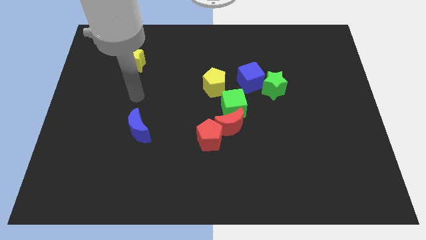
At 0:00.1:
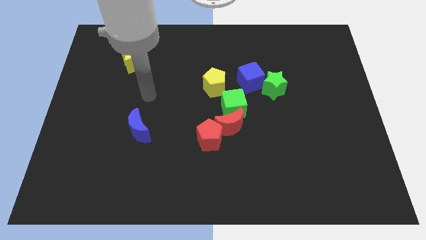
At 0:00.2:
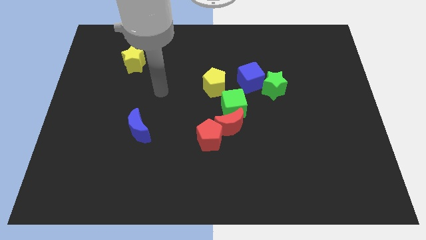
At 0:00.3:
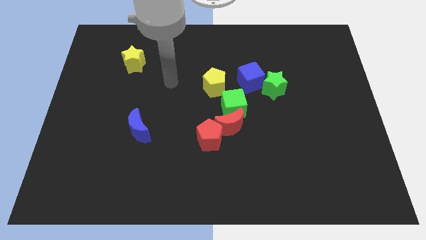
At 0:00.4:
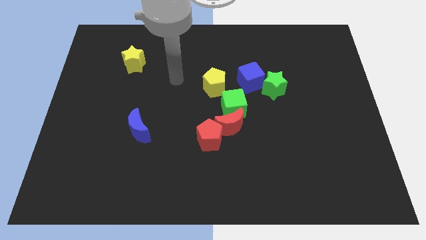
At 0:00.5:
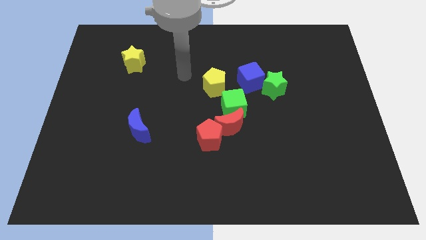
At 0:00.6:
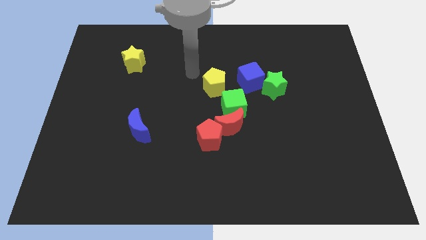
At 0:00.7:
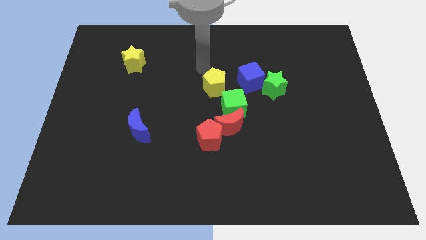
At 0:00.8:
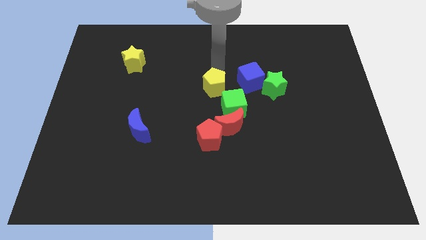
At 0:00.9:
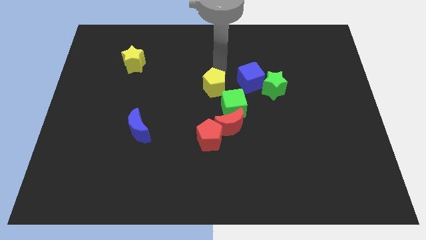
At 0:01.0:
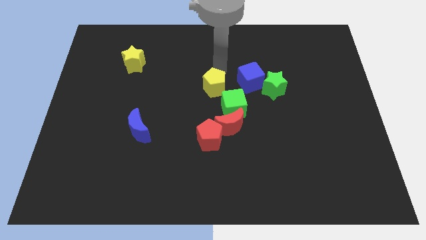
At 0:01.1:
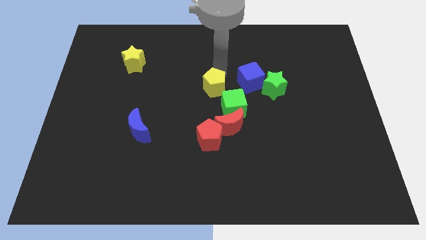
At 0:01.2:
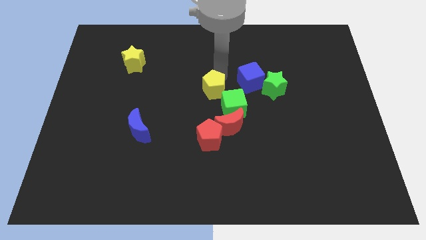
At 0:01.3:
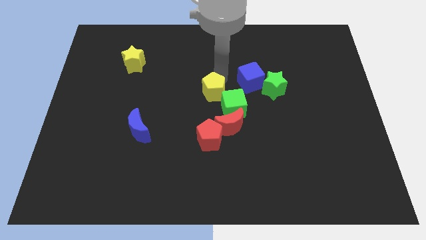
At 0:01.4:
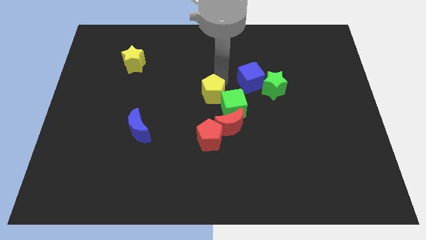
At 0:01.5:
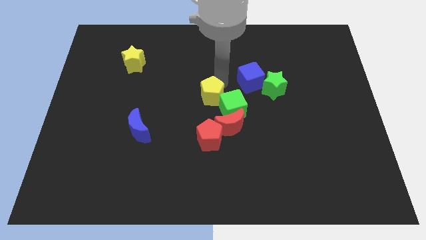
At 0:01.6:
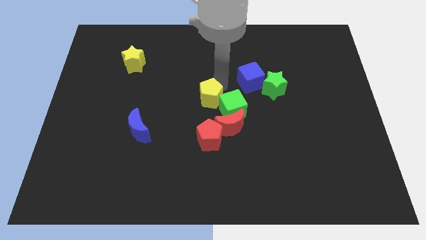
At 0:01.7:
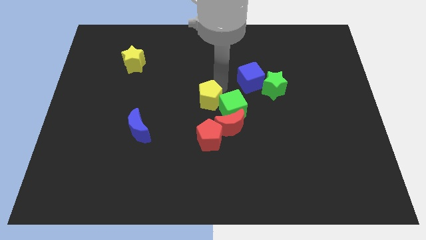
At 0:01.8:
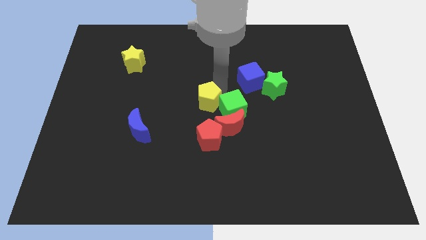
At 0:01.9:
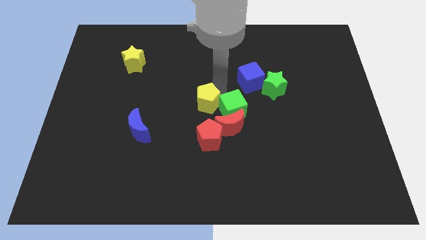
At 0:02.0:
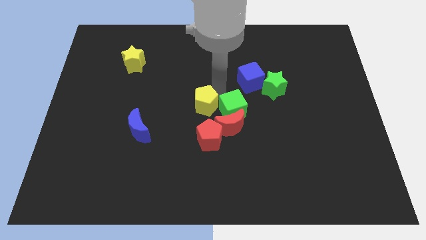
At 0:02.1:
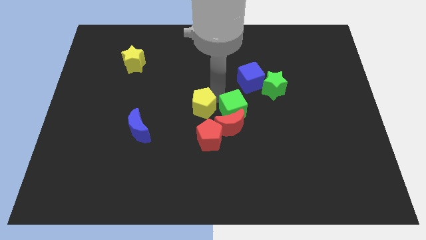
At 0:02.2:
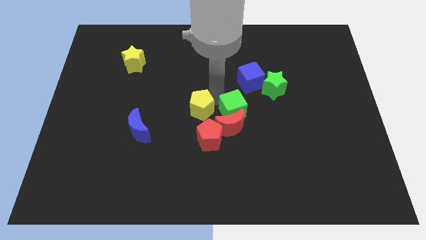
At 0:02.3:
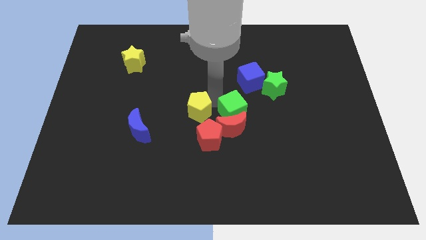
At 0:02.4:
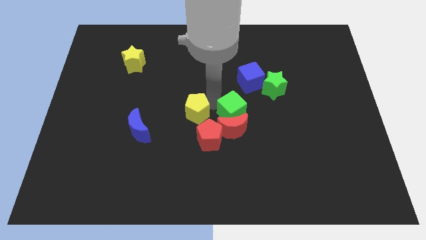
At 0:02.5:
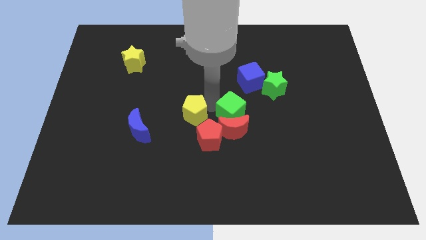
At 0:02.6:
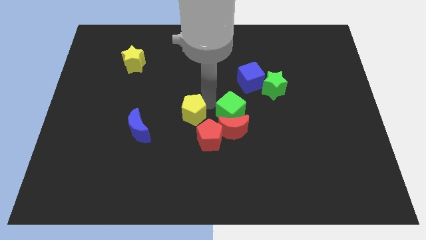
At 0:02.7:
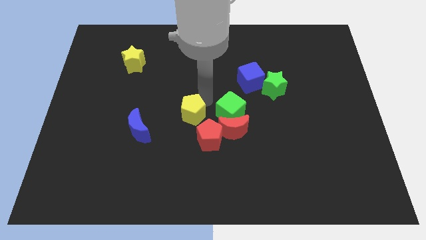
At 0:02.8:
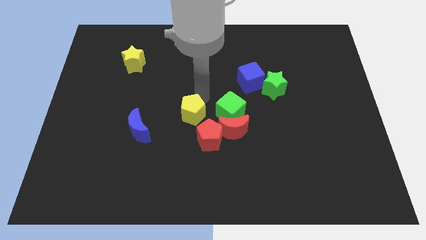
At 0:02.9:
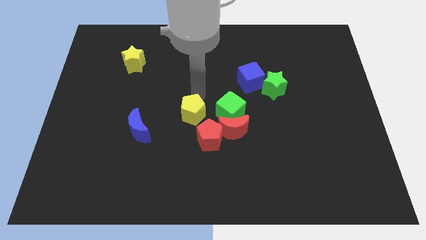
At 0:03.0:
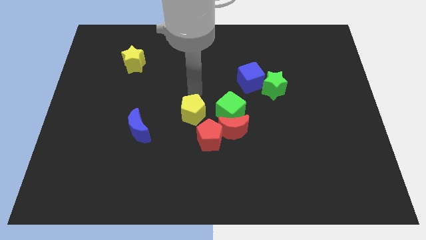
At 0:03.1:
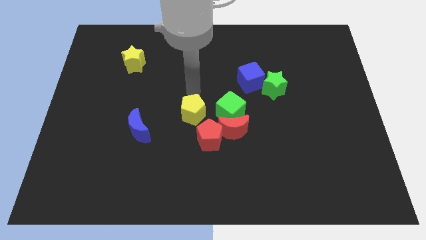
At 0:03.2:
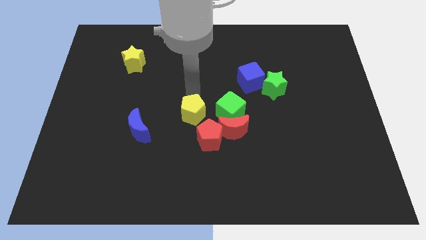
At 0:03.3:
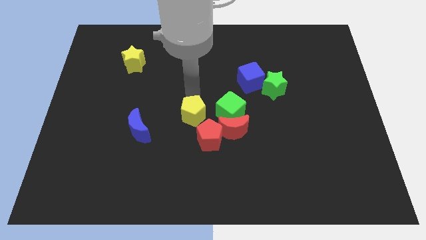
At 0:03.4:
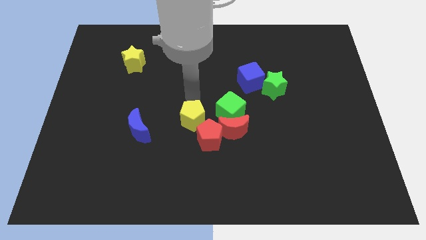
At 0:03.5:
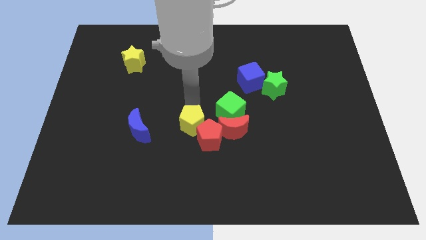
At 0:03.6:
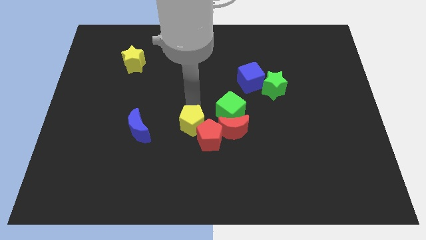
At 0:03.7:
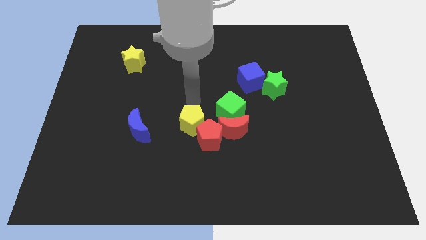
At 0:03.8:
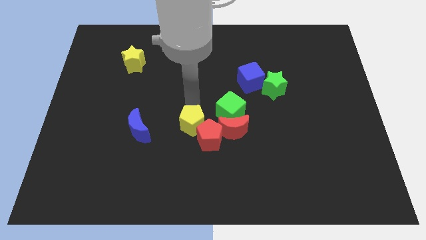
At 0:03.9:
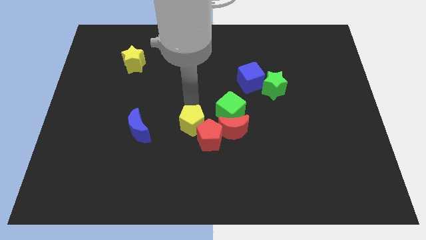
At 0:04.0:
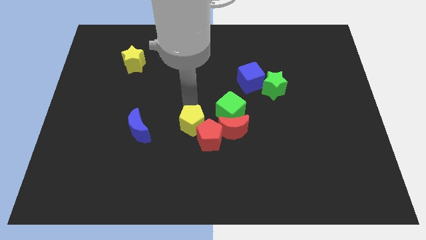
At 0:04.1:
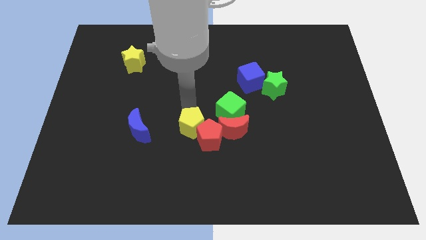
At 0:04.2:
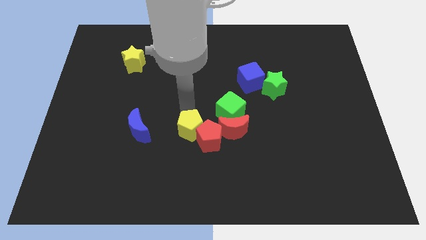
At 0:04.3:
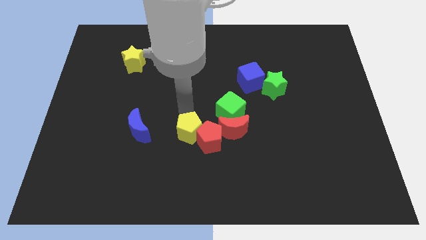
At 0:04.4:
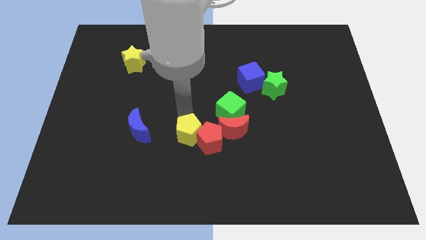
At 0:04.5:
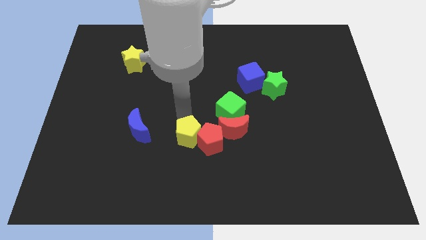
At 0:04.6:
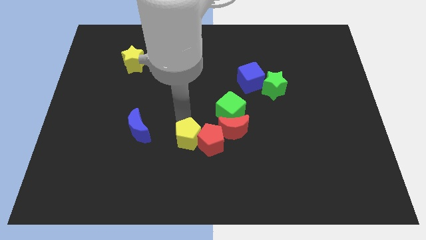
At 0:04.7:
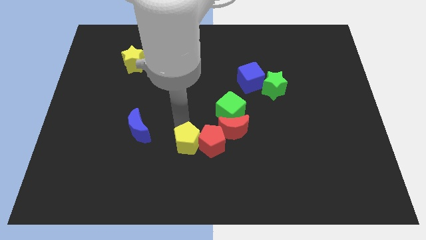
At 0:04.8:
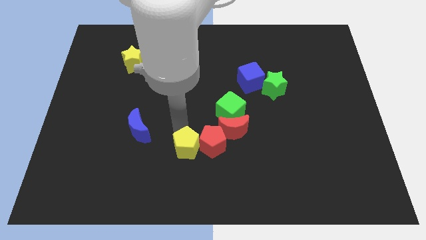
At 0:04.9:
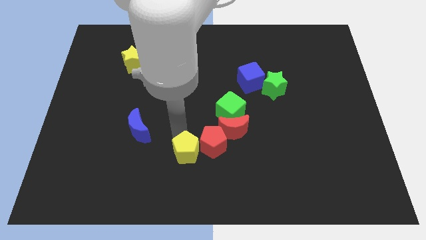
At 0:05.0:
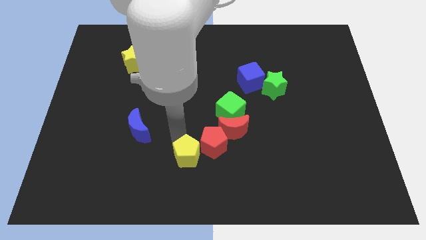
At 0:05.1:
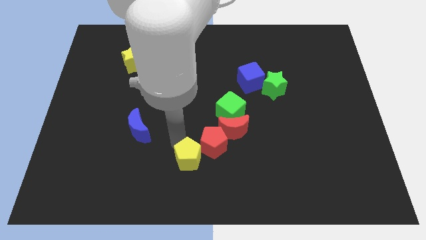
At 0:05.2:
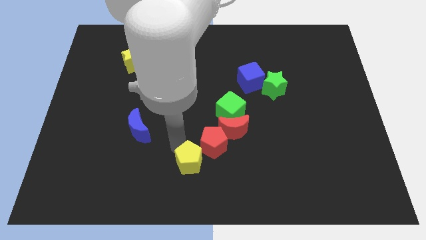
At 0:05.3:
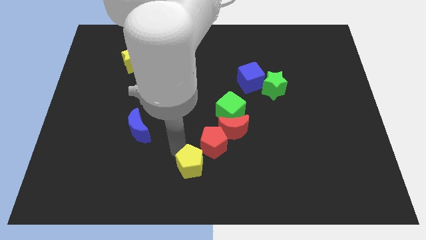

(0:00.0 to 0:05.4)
slide the yellow pentagon to the bottom of the red pentagon

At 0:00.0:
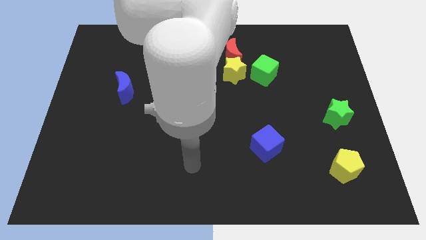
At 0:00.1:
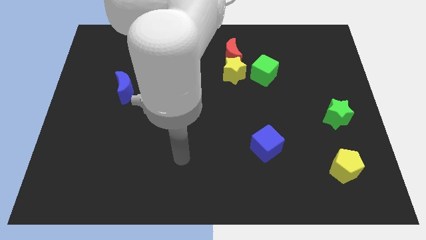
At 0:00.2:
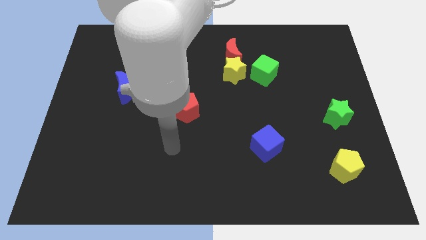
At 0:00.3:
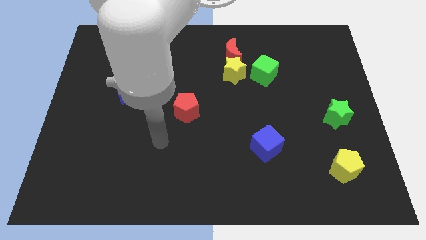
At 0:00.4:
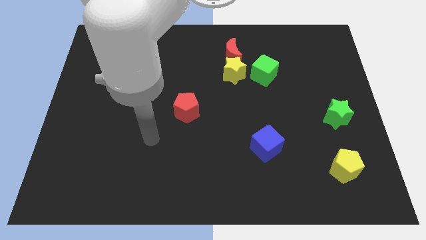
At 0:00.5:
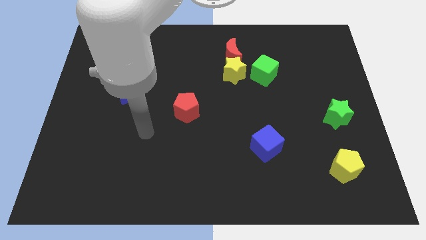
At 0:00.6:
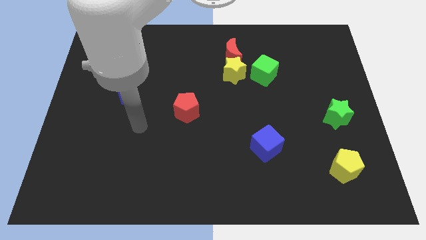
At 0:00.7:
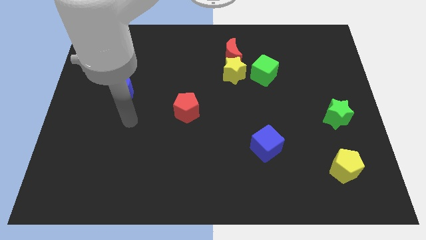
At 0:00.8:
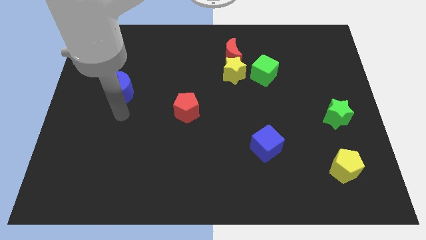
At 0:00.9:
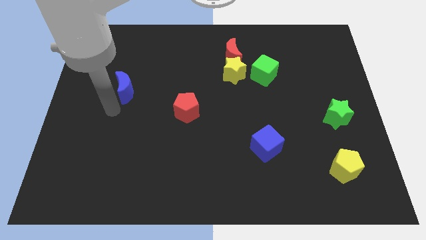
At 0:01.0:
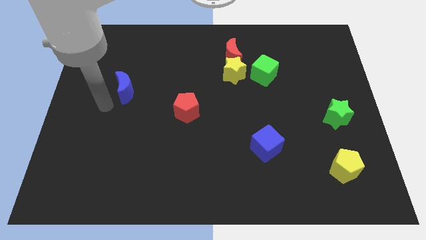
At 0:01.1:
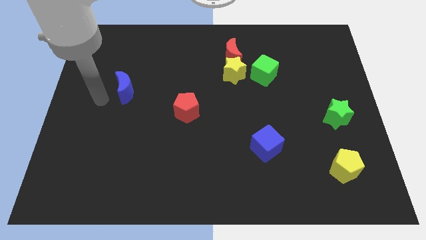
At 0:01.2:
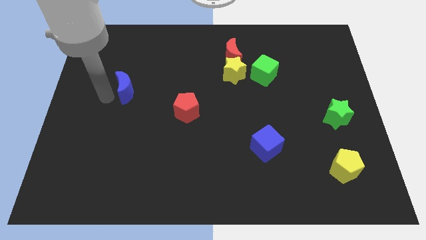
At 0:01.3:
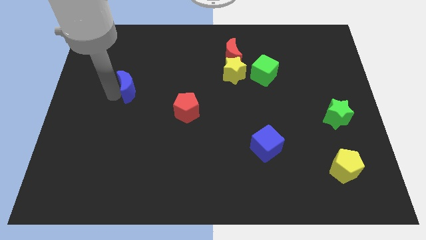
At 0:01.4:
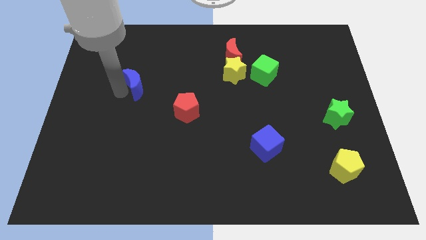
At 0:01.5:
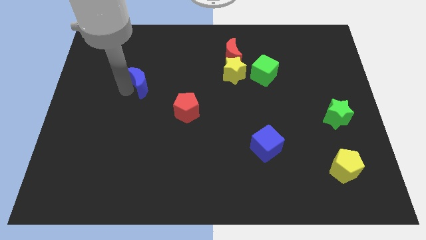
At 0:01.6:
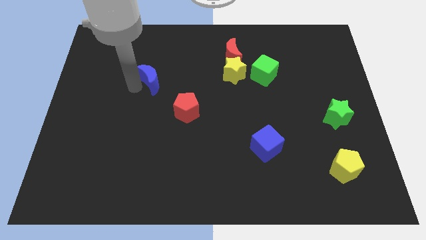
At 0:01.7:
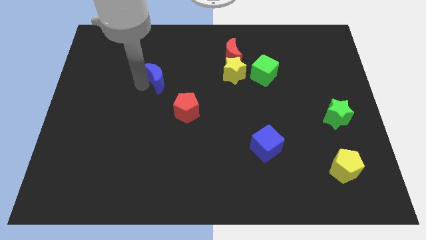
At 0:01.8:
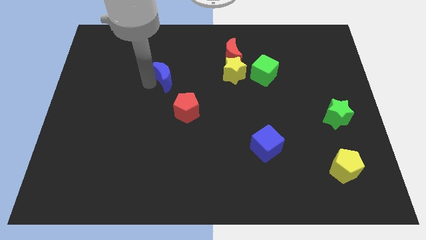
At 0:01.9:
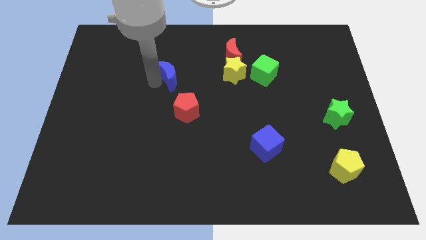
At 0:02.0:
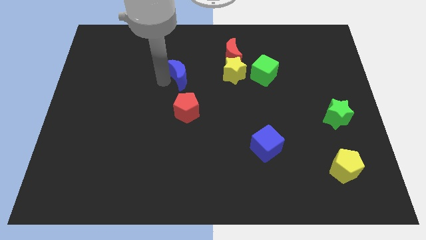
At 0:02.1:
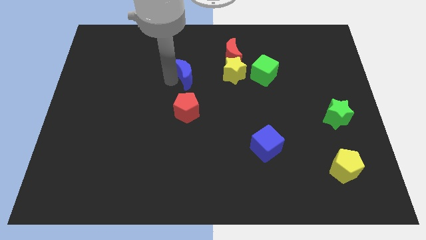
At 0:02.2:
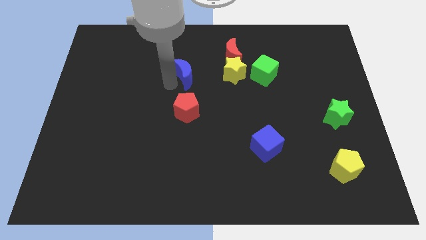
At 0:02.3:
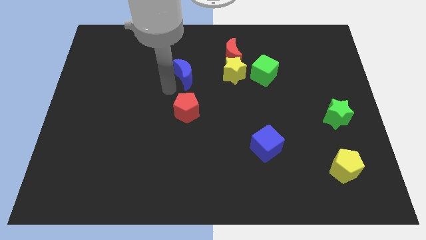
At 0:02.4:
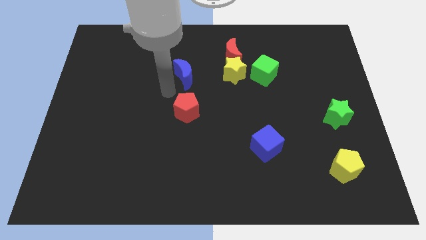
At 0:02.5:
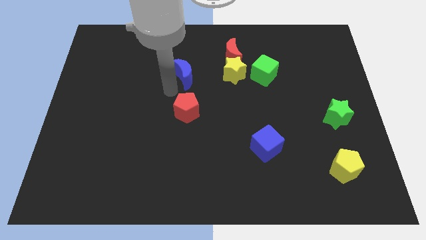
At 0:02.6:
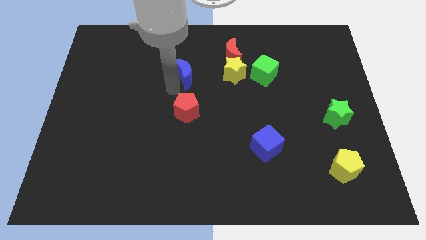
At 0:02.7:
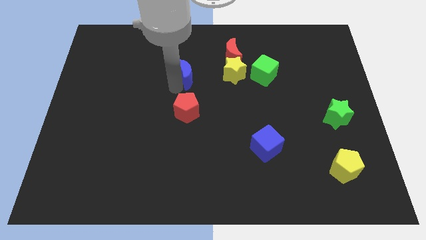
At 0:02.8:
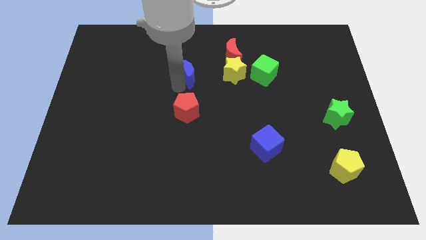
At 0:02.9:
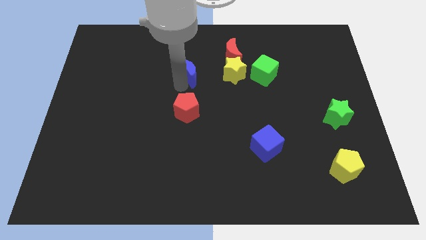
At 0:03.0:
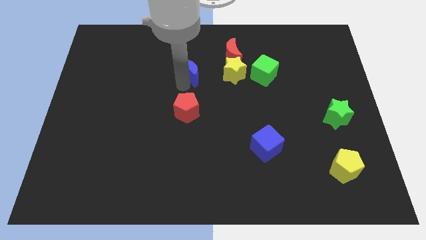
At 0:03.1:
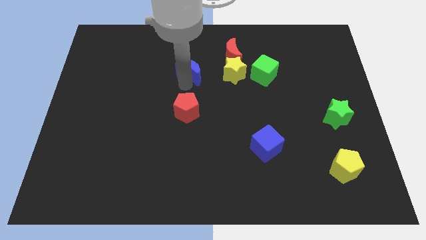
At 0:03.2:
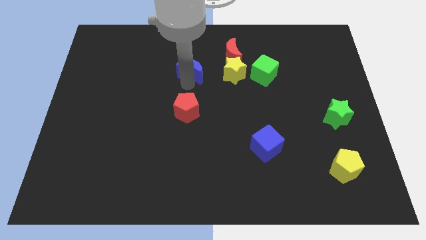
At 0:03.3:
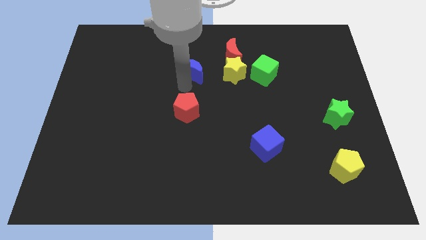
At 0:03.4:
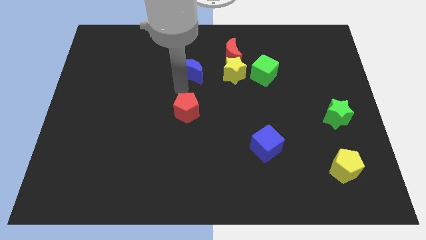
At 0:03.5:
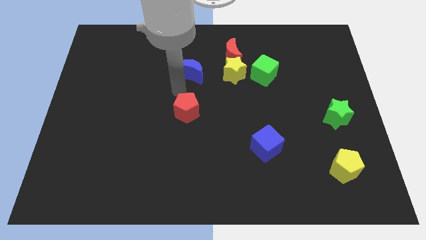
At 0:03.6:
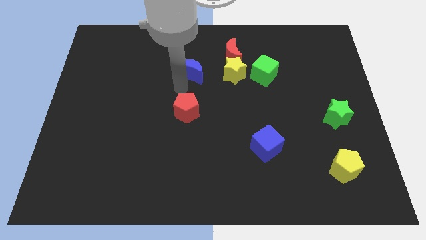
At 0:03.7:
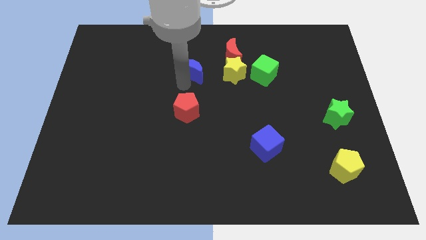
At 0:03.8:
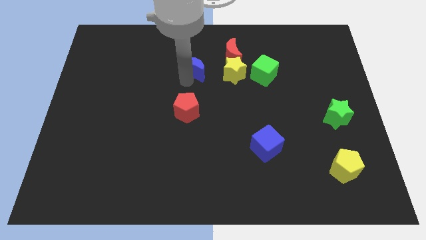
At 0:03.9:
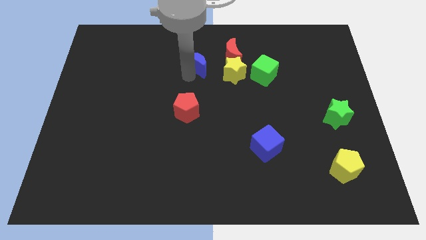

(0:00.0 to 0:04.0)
move the blue moon diagonally up and to the left of the yellow star
